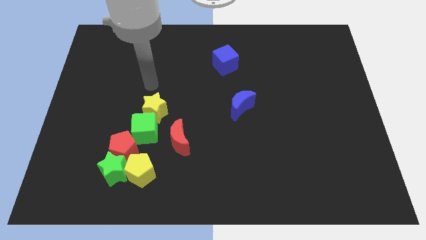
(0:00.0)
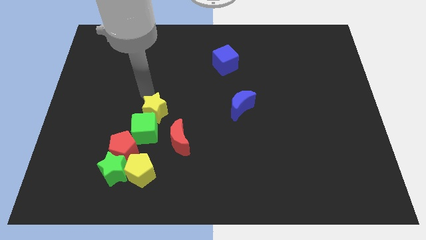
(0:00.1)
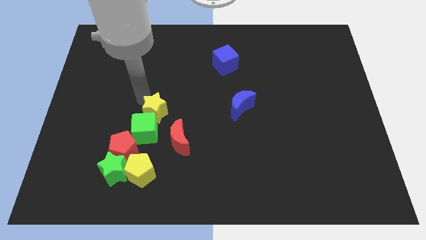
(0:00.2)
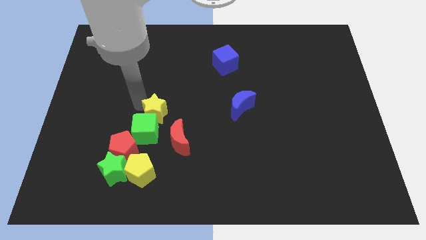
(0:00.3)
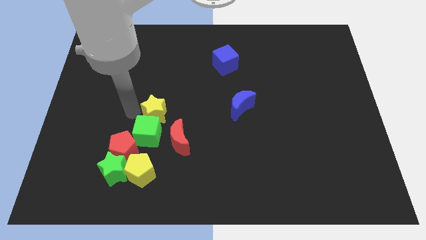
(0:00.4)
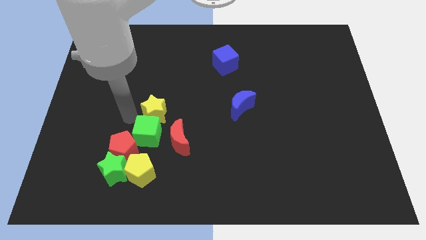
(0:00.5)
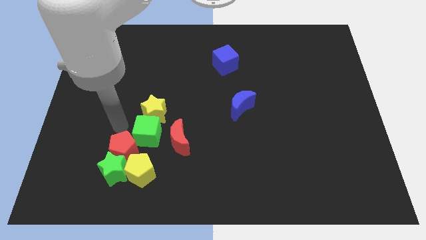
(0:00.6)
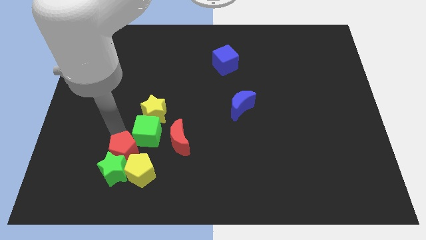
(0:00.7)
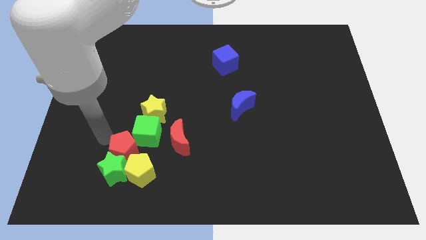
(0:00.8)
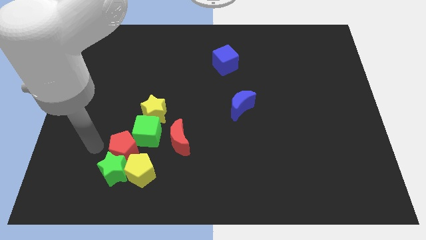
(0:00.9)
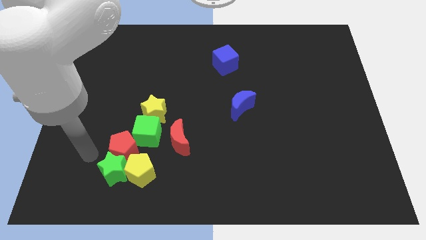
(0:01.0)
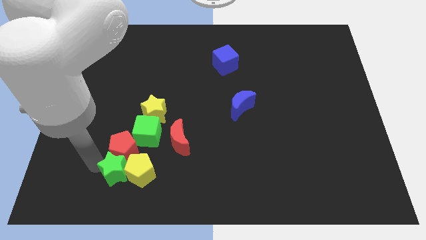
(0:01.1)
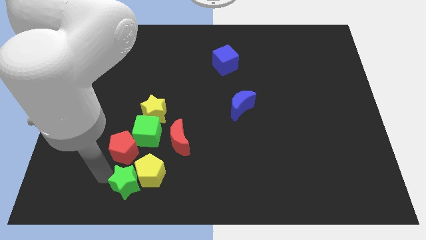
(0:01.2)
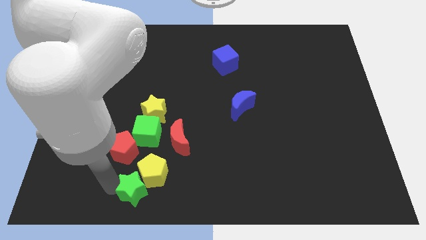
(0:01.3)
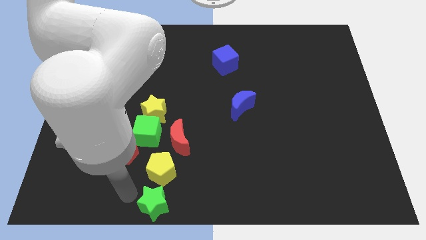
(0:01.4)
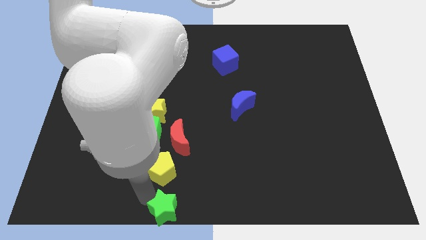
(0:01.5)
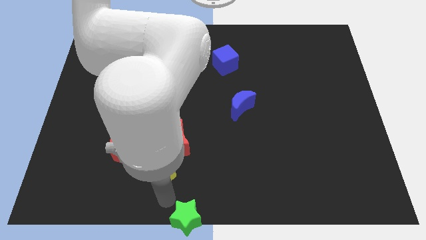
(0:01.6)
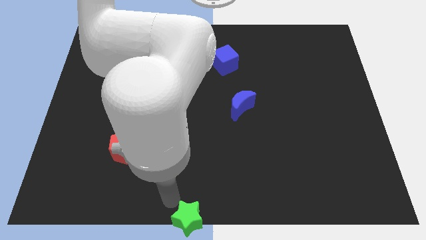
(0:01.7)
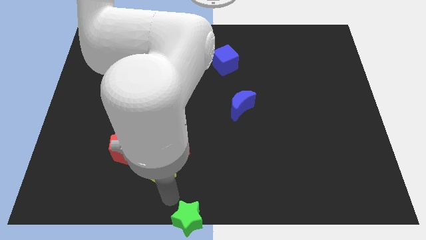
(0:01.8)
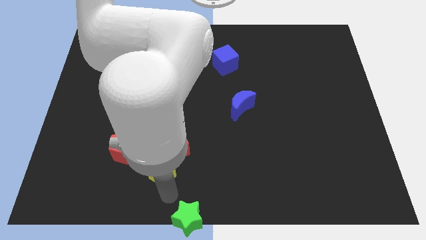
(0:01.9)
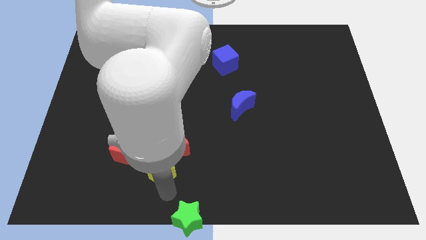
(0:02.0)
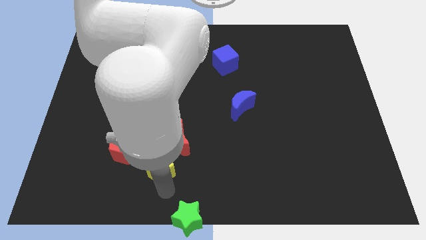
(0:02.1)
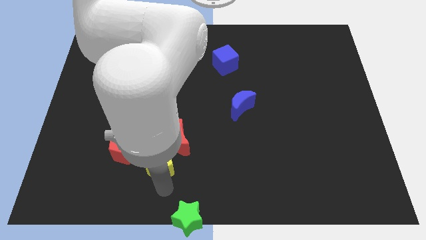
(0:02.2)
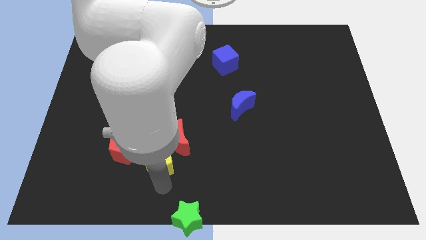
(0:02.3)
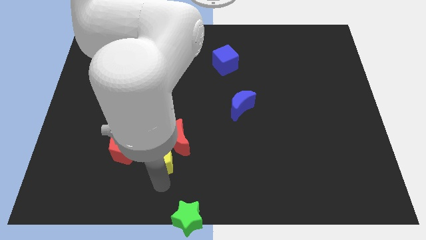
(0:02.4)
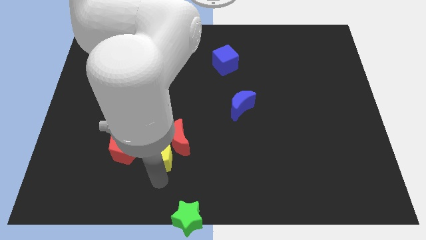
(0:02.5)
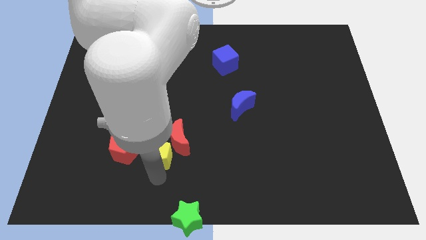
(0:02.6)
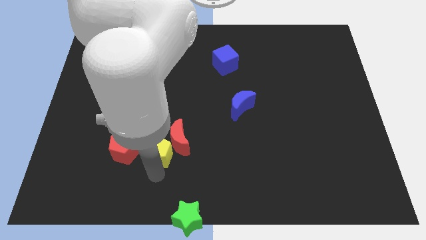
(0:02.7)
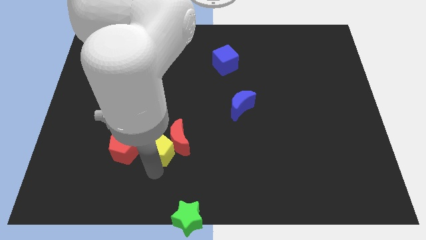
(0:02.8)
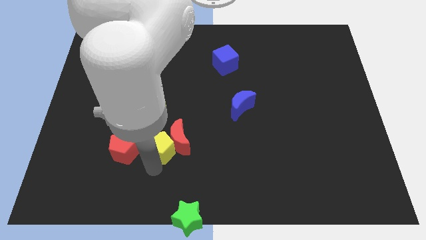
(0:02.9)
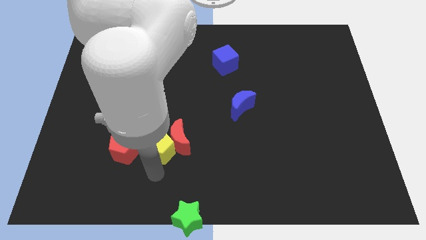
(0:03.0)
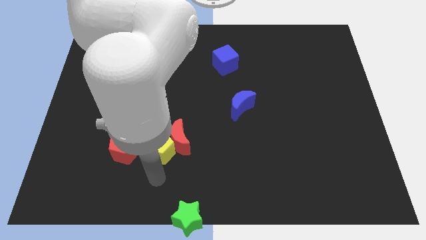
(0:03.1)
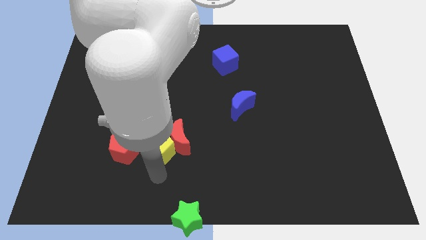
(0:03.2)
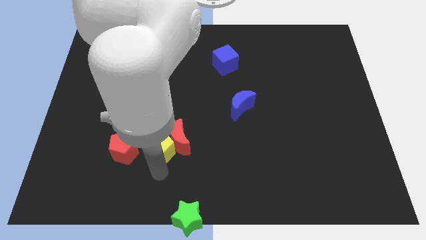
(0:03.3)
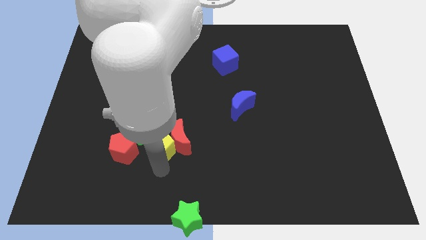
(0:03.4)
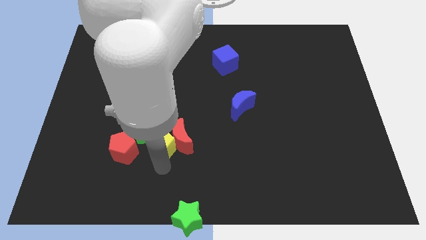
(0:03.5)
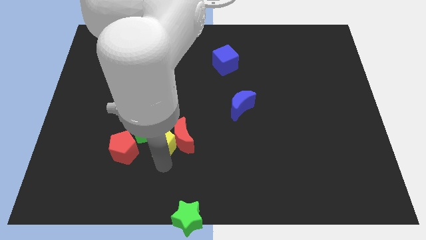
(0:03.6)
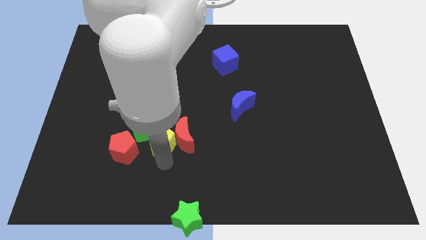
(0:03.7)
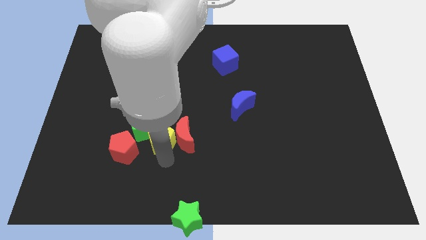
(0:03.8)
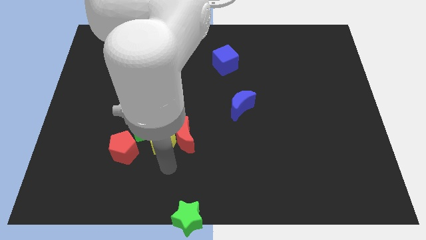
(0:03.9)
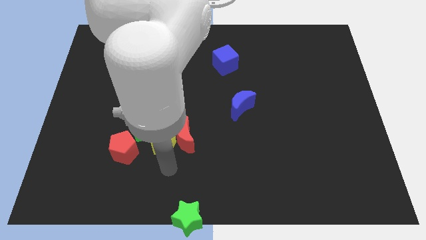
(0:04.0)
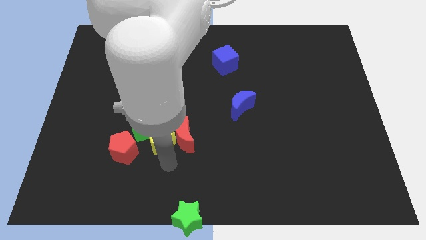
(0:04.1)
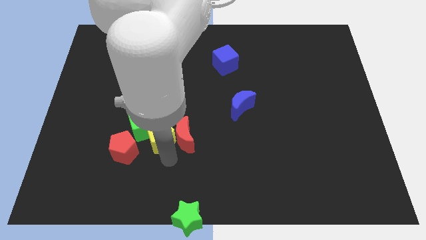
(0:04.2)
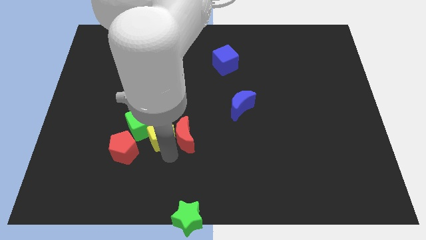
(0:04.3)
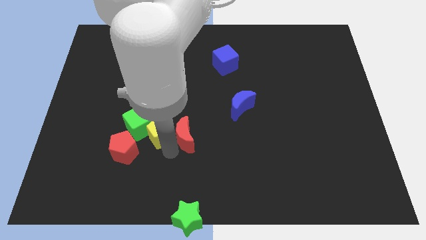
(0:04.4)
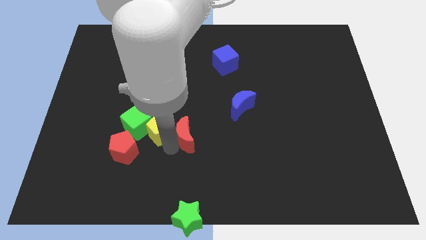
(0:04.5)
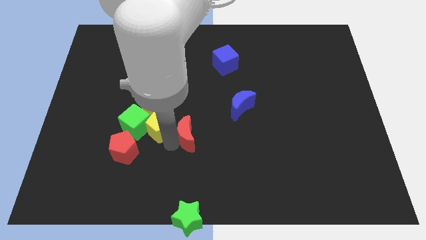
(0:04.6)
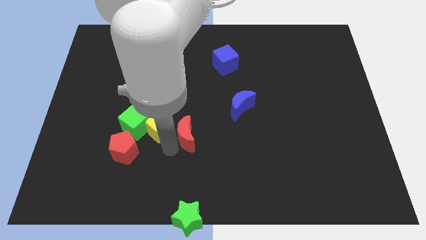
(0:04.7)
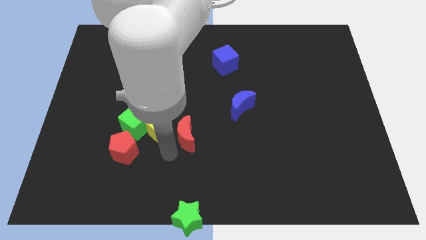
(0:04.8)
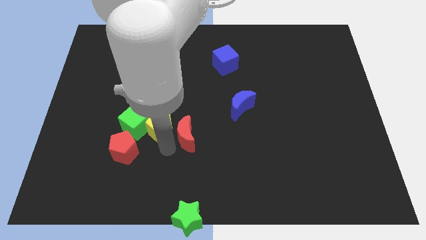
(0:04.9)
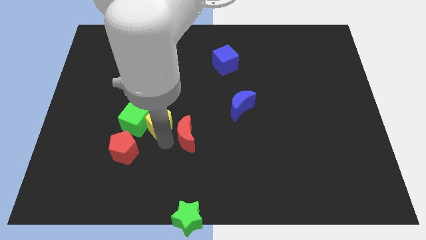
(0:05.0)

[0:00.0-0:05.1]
move the yellow pentagon towards the yellow star

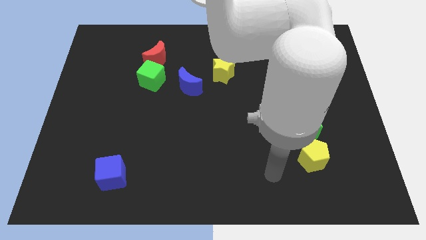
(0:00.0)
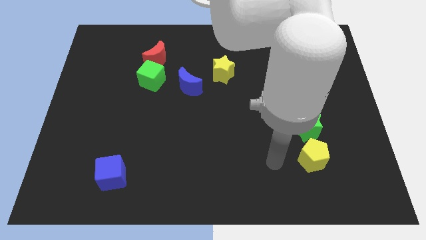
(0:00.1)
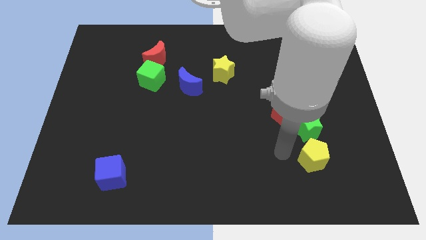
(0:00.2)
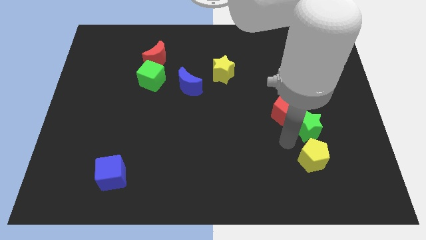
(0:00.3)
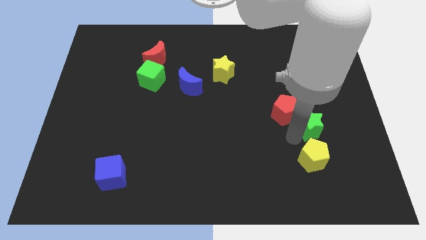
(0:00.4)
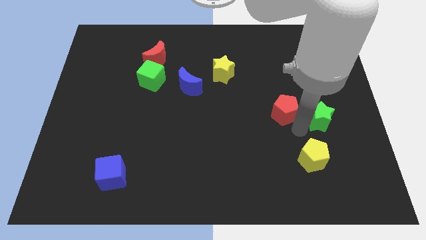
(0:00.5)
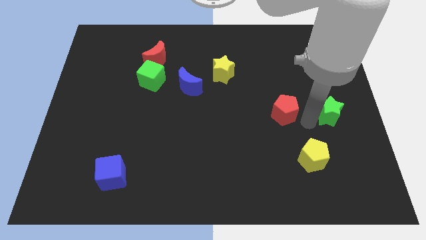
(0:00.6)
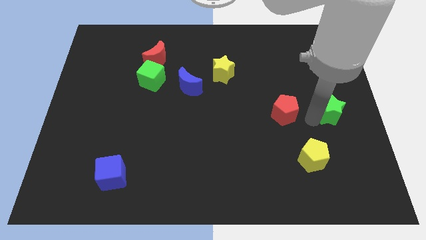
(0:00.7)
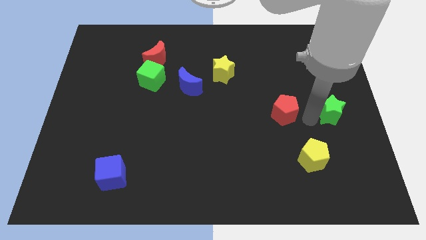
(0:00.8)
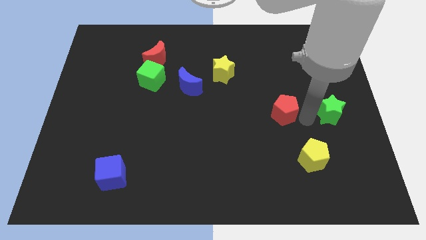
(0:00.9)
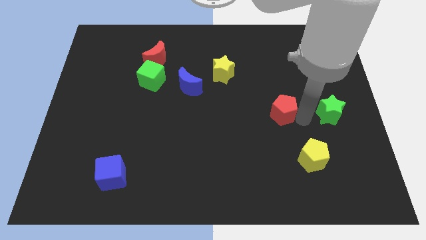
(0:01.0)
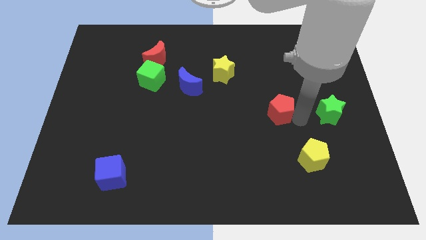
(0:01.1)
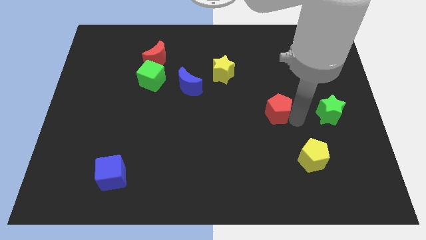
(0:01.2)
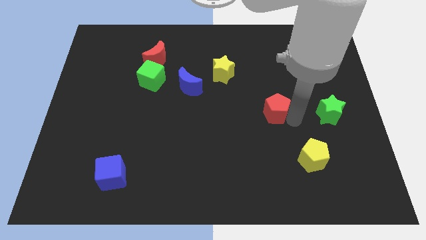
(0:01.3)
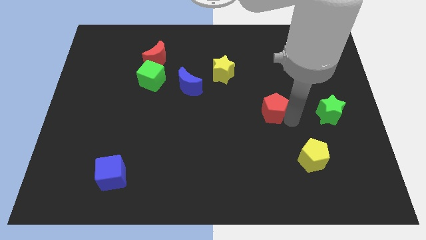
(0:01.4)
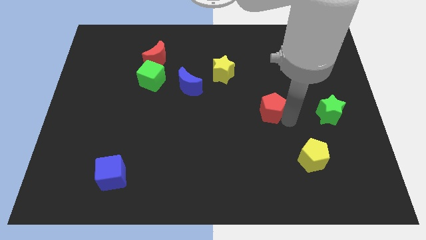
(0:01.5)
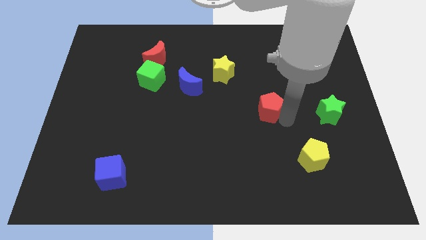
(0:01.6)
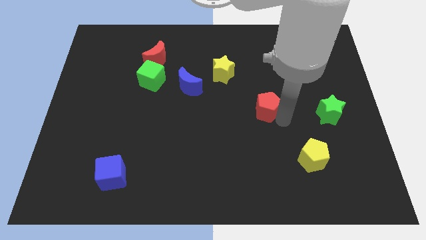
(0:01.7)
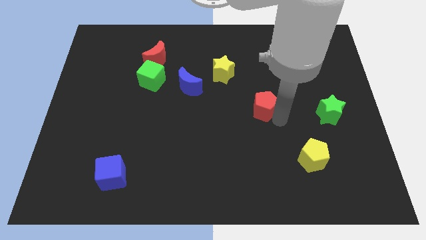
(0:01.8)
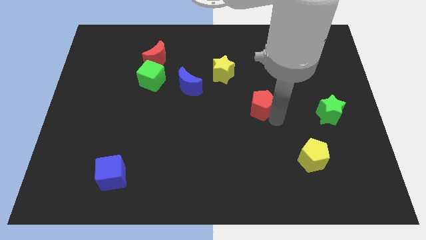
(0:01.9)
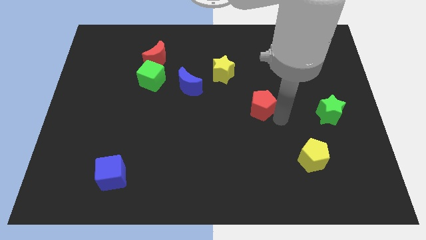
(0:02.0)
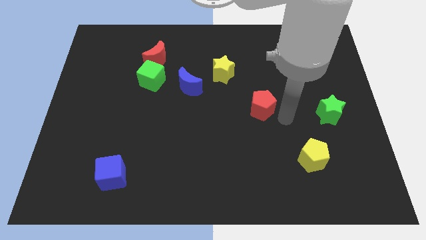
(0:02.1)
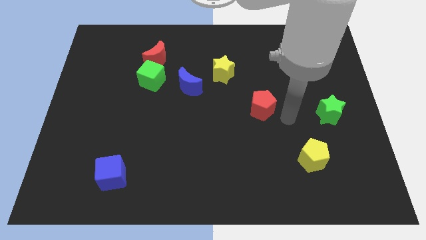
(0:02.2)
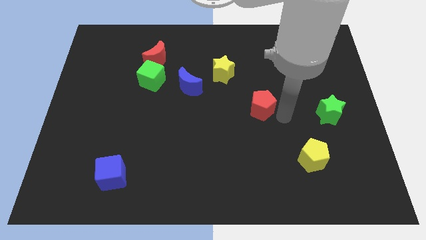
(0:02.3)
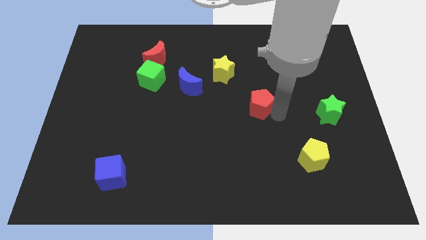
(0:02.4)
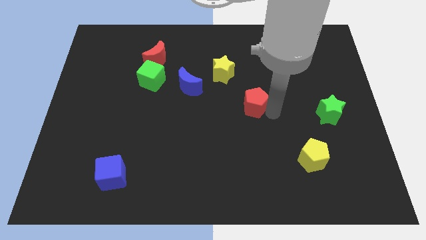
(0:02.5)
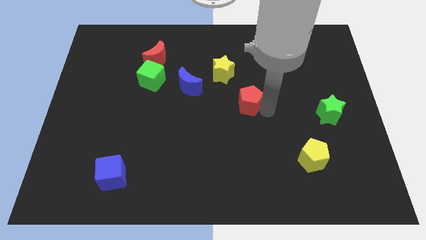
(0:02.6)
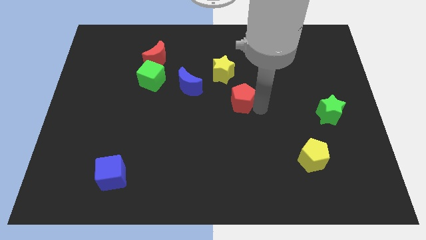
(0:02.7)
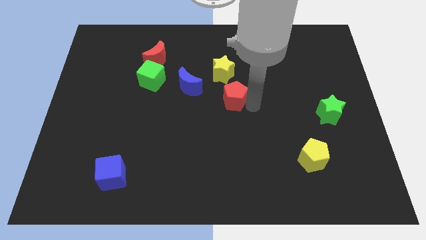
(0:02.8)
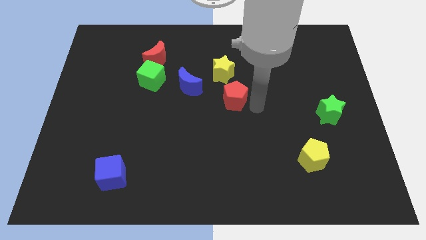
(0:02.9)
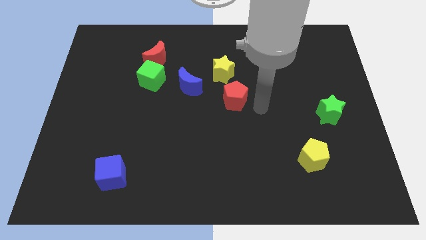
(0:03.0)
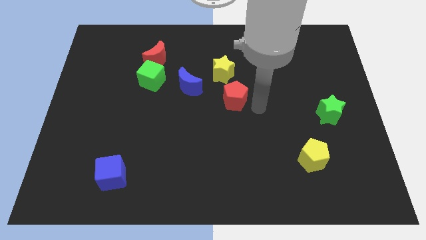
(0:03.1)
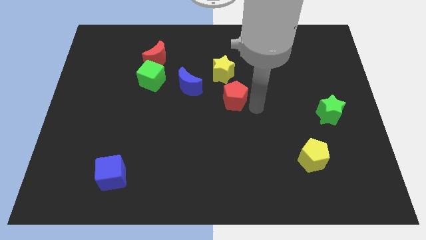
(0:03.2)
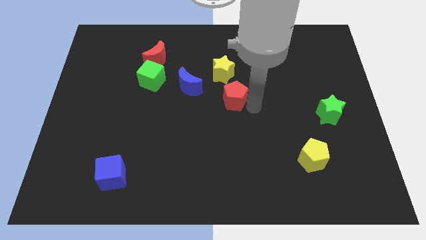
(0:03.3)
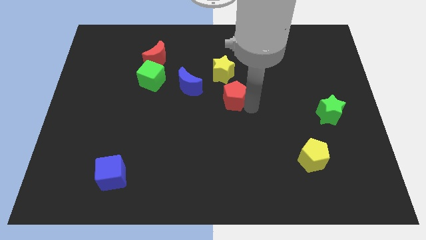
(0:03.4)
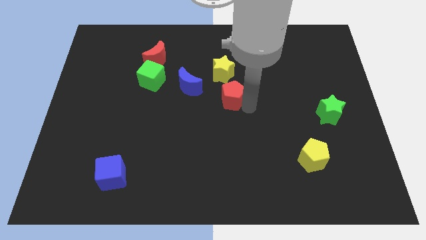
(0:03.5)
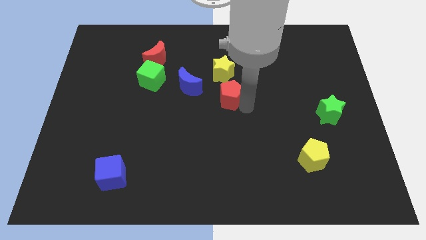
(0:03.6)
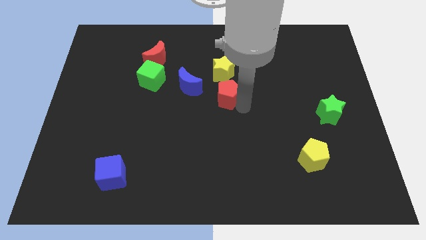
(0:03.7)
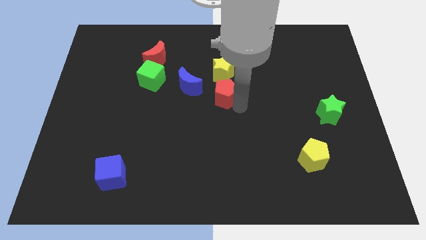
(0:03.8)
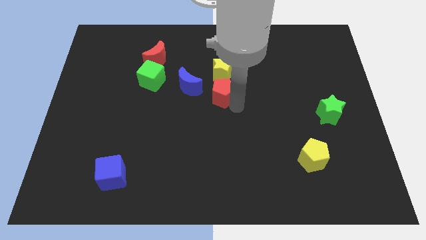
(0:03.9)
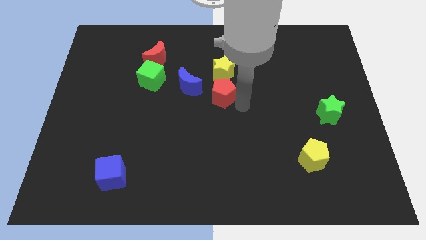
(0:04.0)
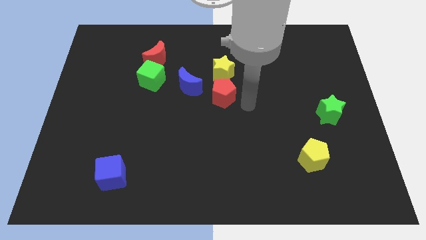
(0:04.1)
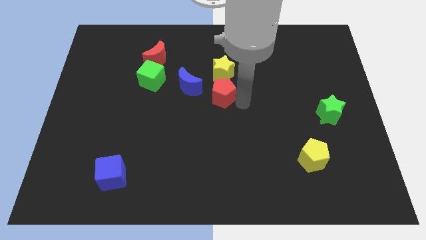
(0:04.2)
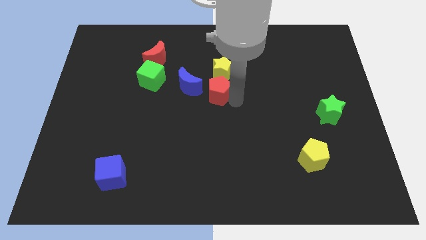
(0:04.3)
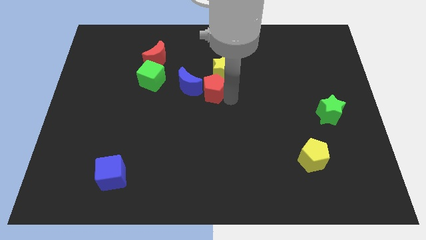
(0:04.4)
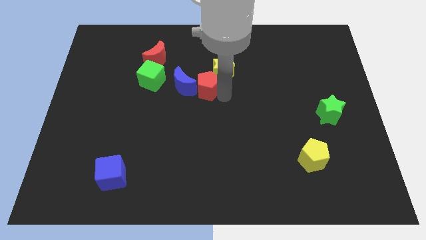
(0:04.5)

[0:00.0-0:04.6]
move the red pentagon close to the blue moon
